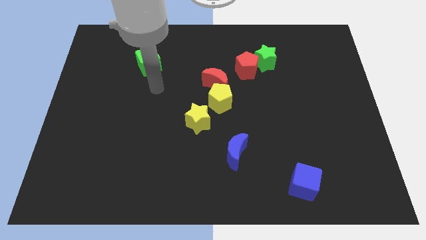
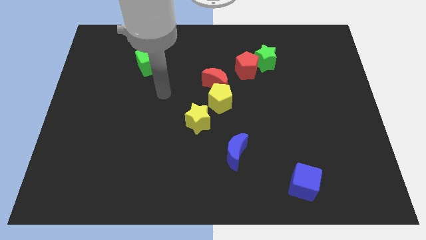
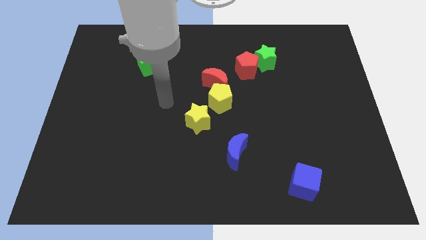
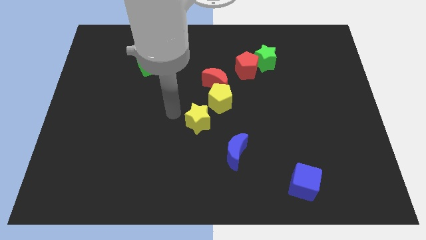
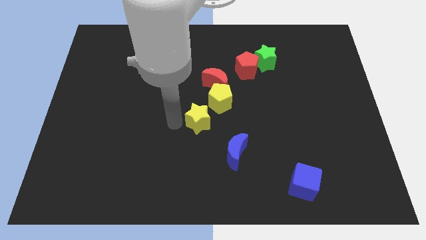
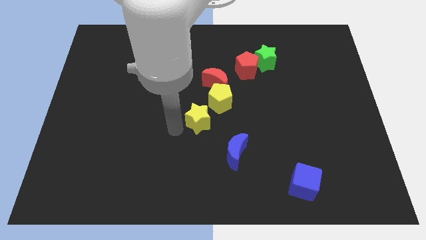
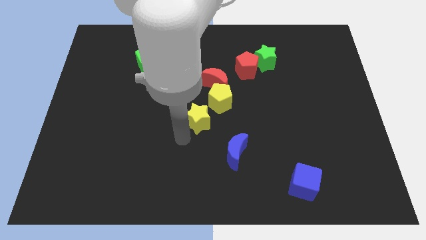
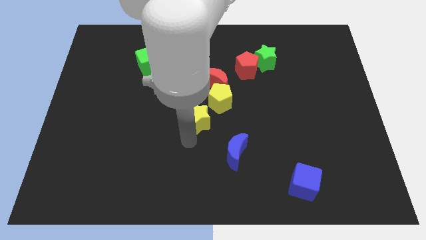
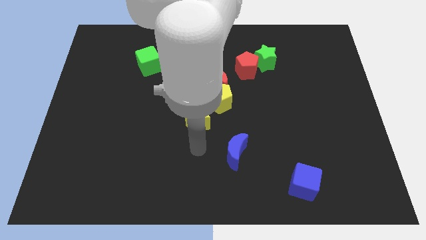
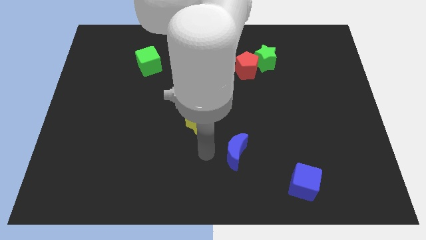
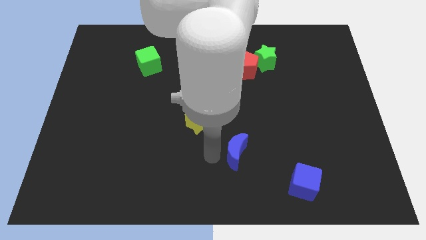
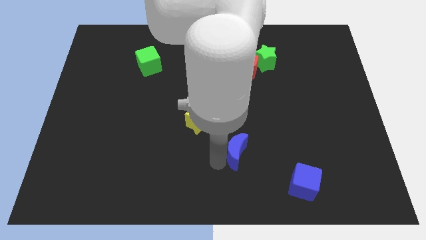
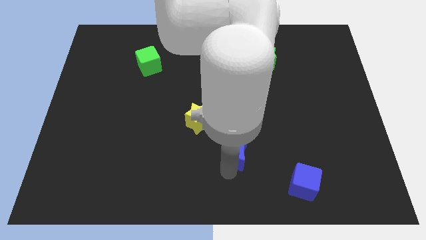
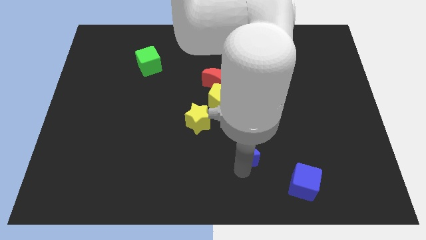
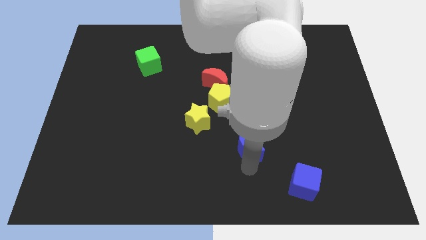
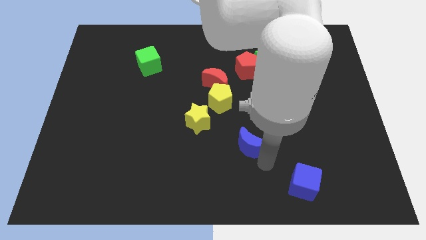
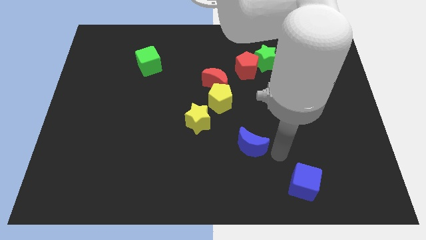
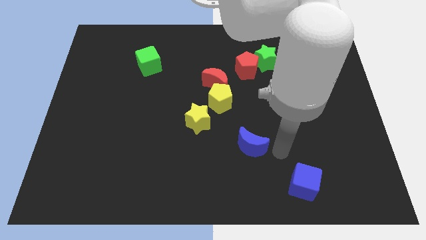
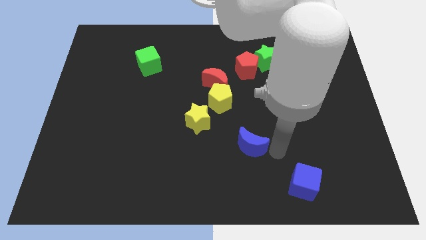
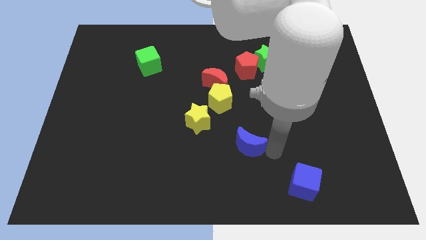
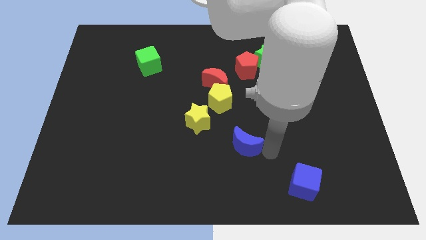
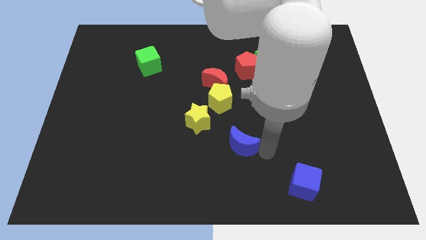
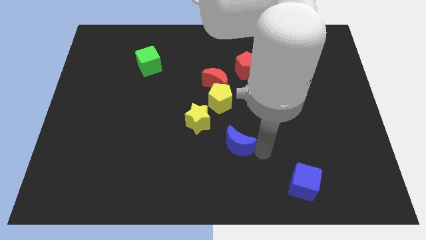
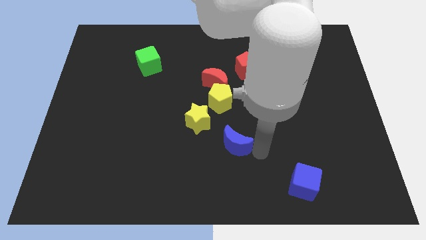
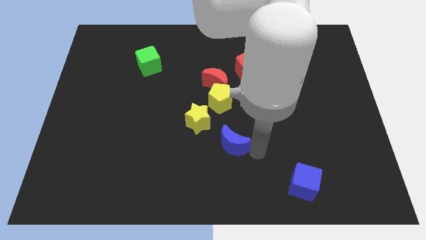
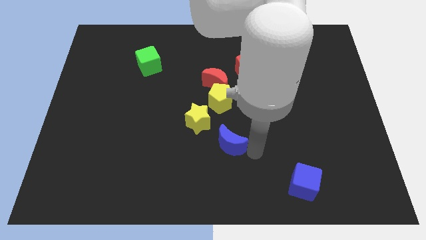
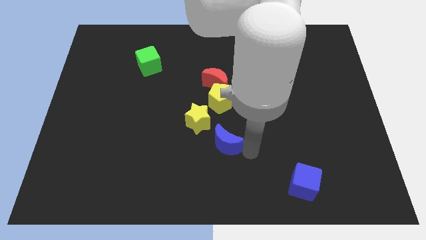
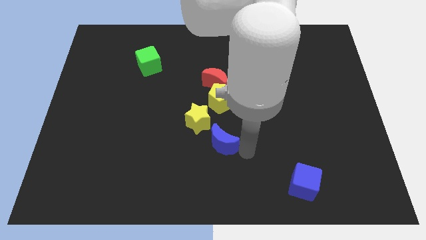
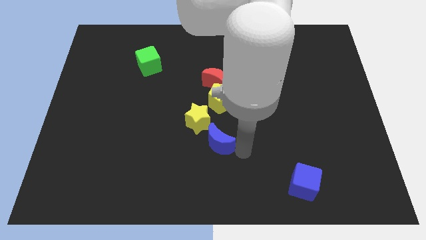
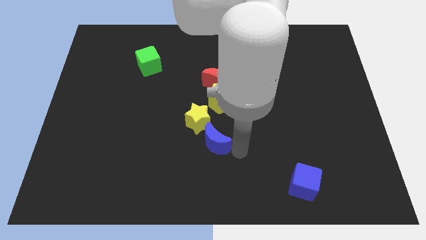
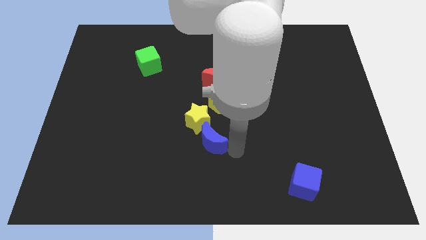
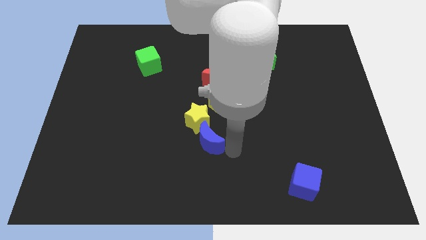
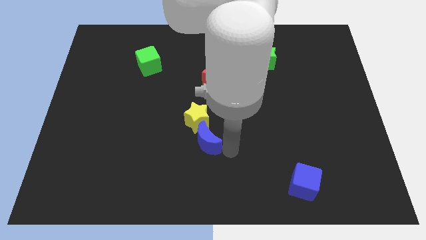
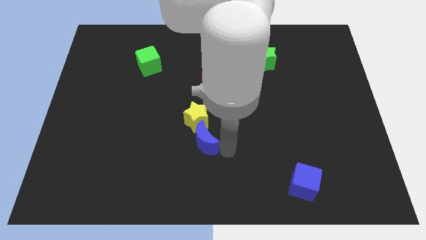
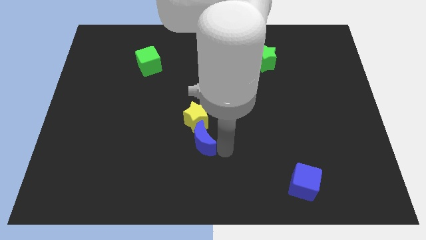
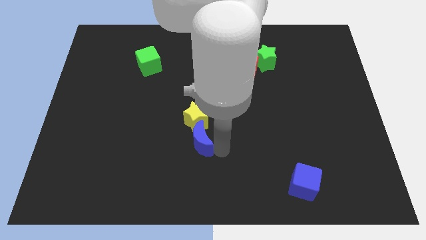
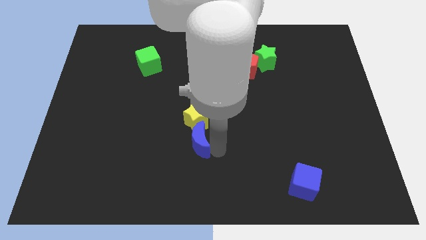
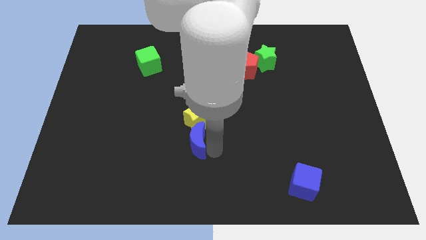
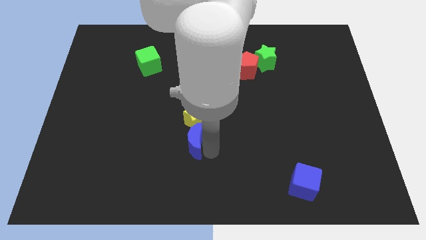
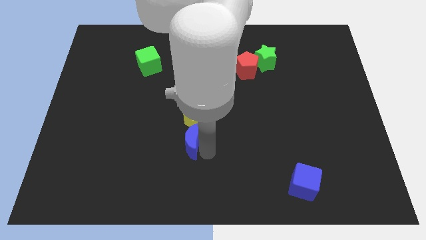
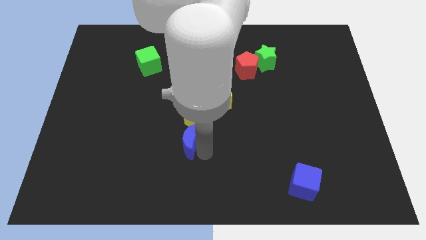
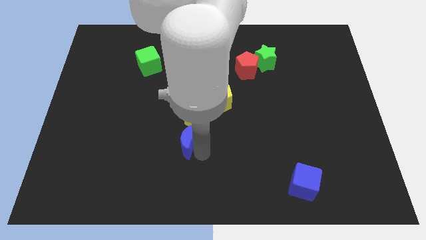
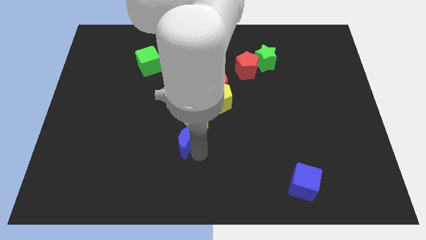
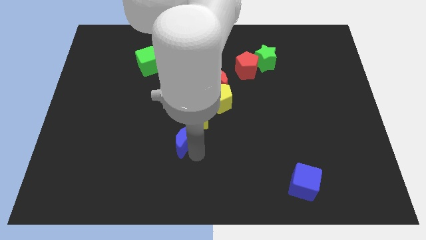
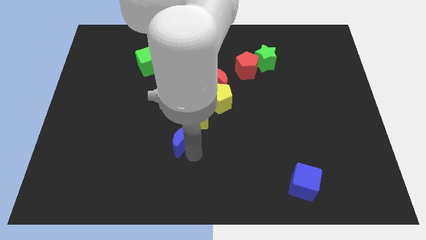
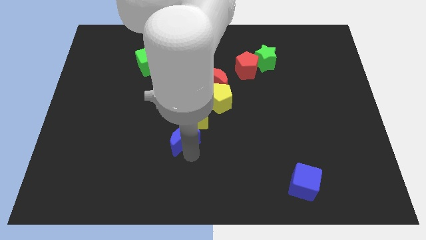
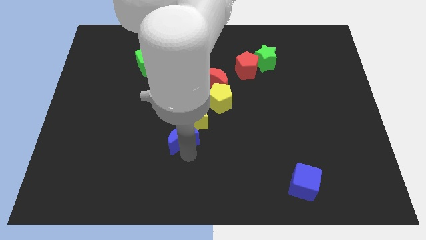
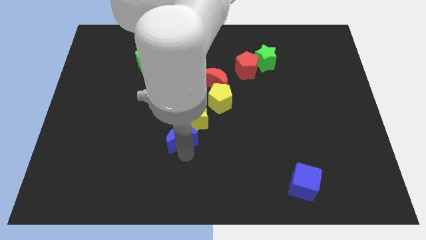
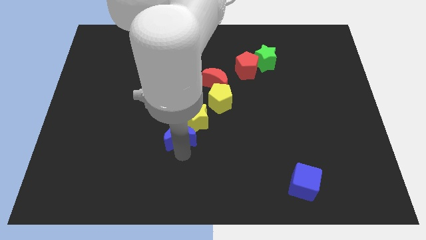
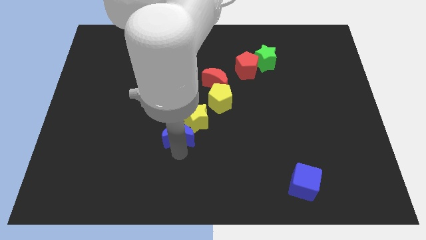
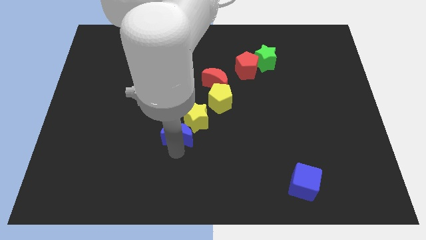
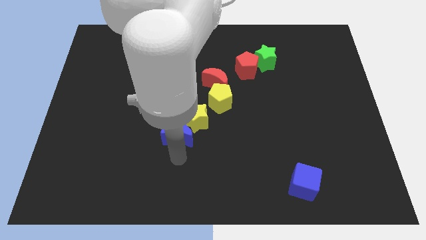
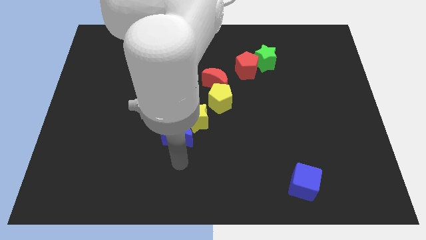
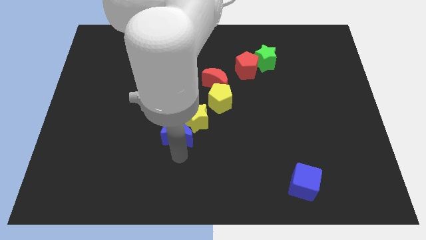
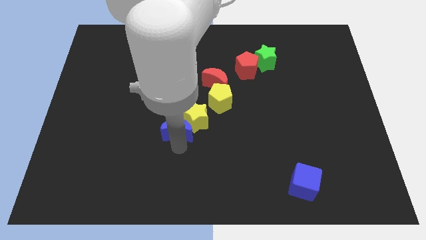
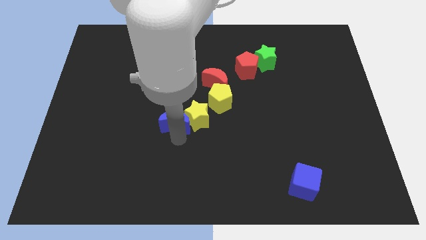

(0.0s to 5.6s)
slide the blue moon diagonally up and to the left of the yellow star

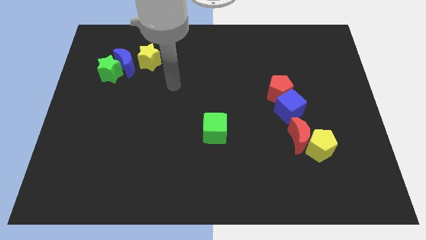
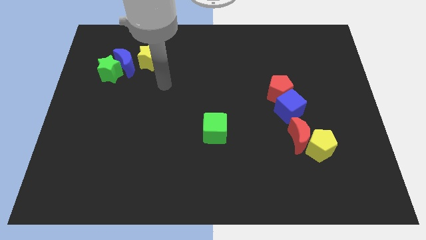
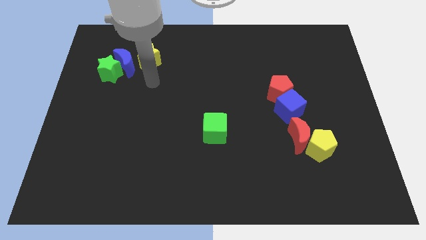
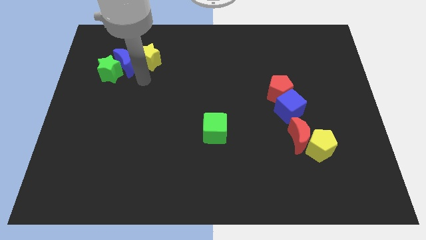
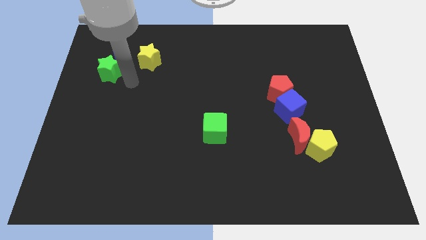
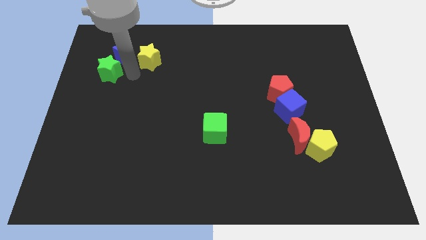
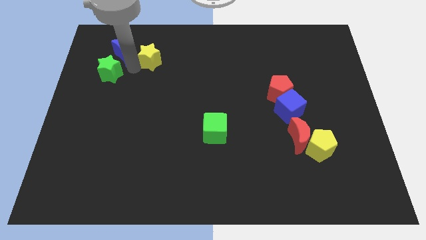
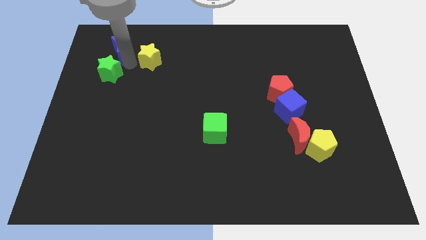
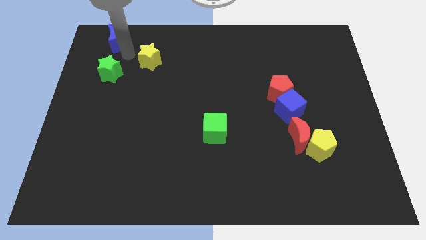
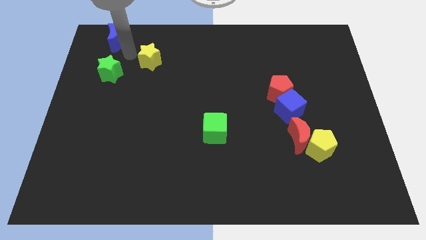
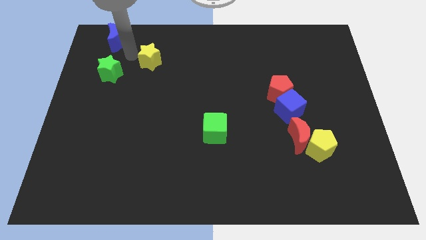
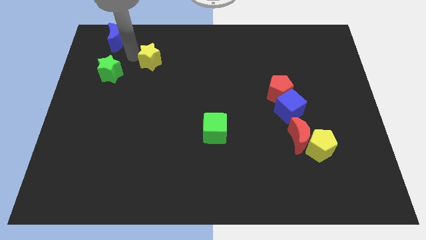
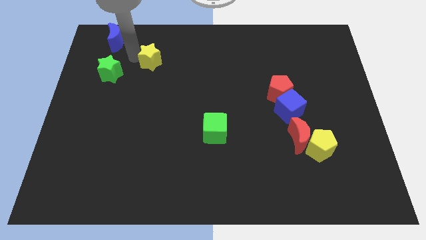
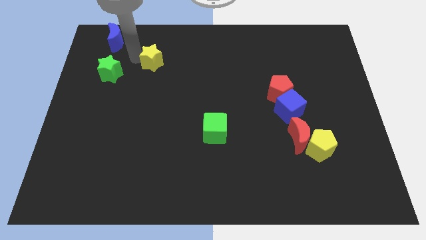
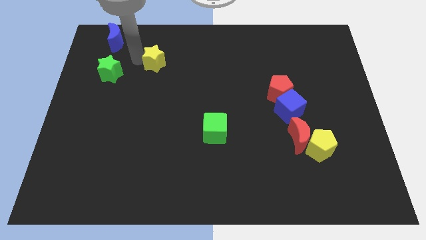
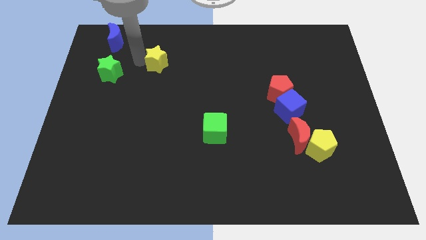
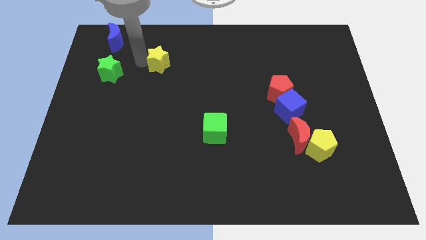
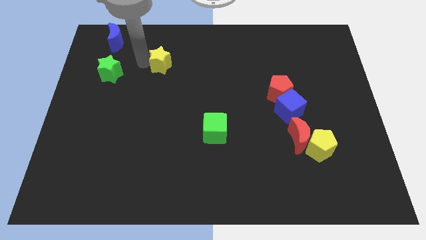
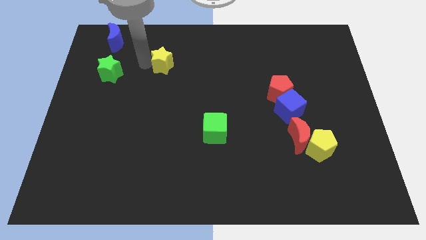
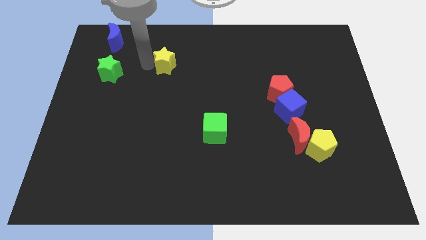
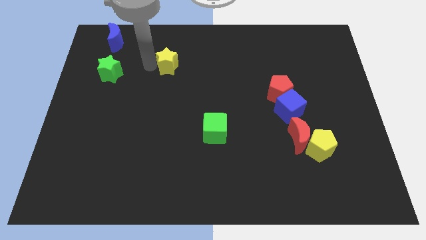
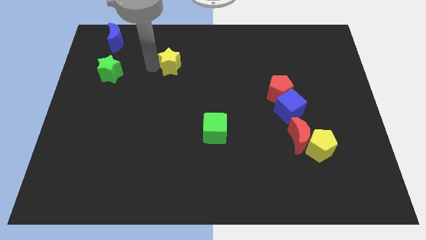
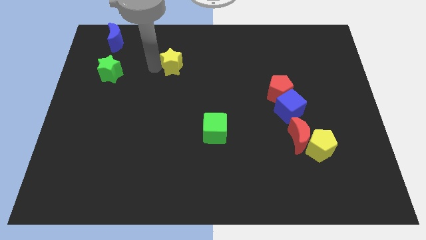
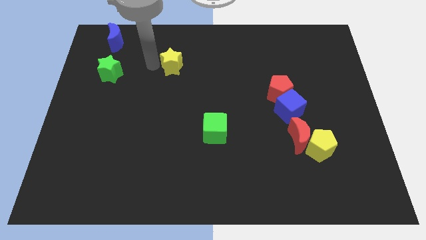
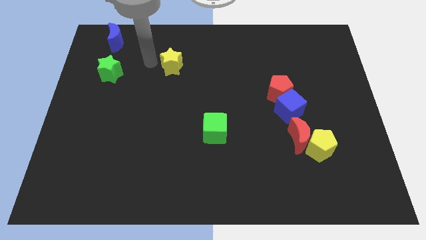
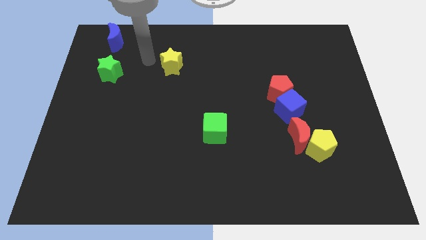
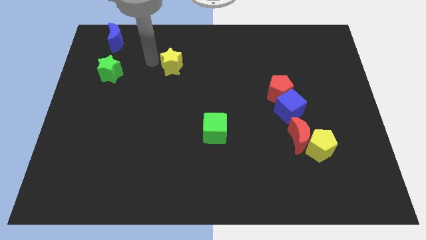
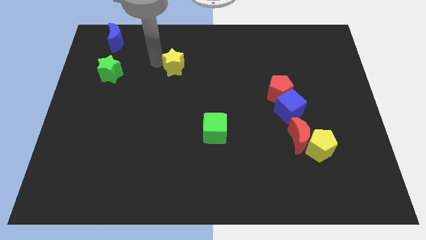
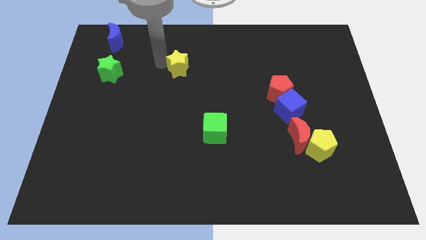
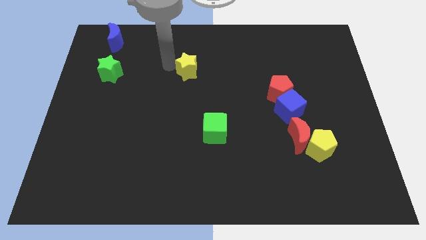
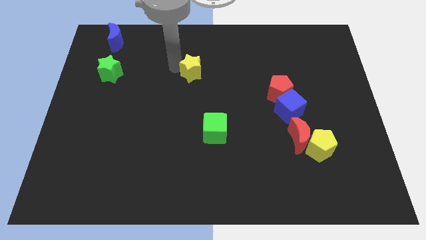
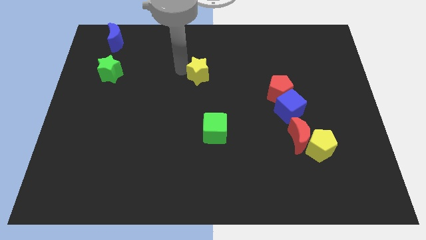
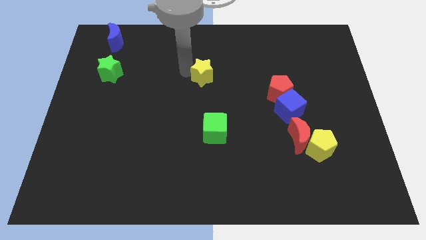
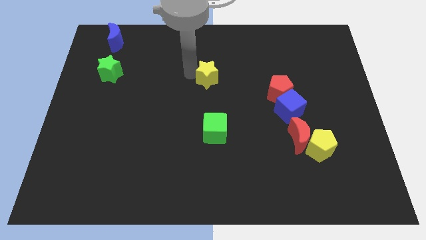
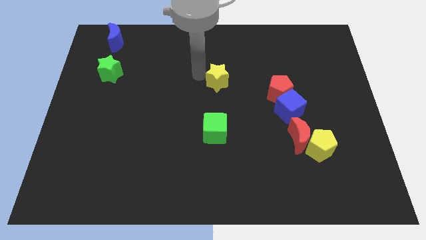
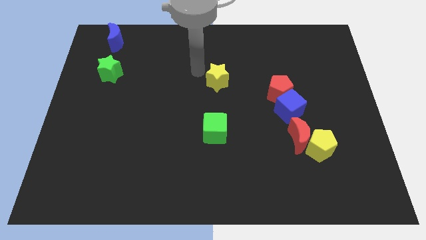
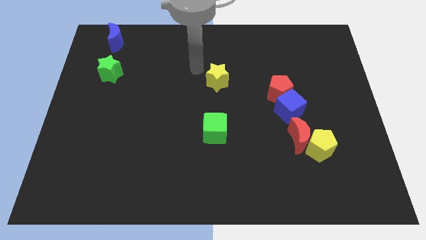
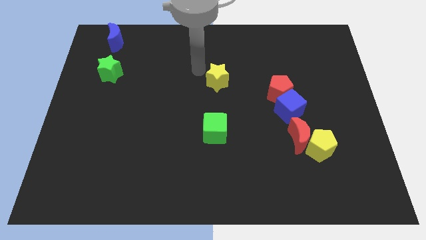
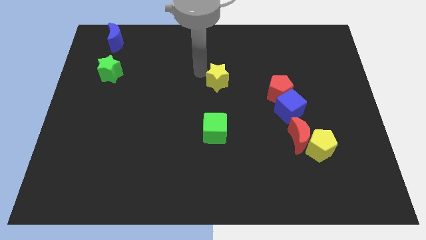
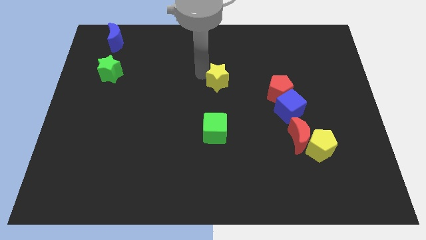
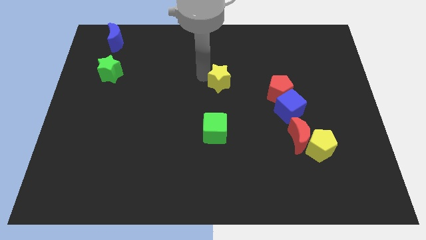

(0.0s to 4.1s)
push the yellow star just left of the red pentagon
